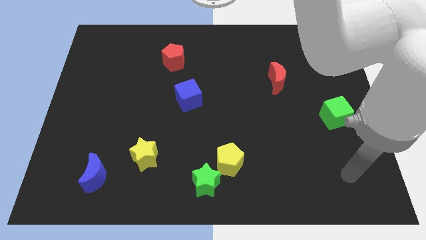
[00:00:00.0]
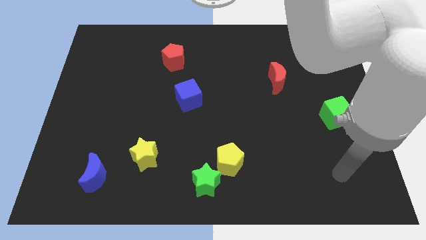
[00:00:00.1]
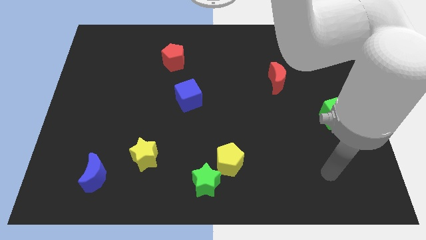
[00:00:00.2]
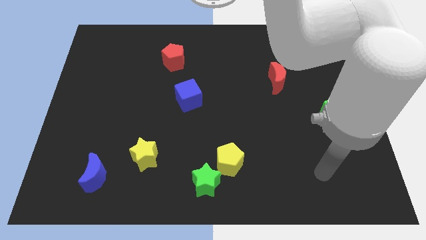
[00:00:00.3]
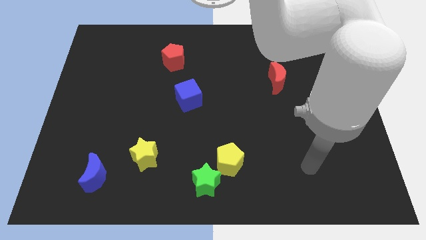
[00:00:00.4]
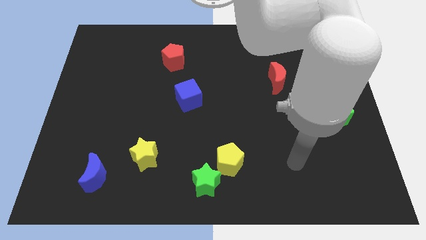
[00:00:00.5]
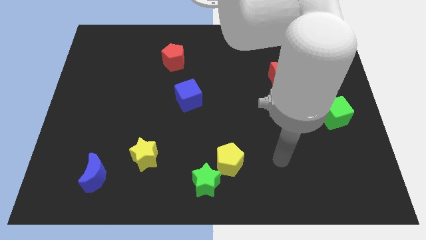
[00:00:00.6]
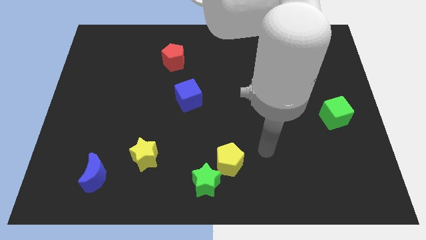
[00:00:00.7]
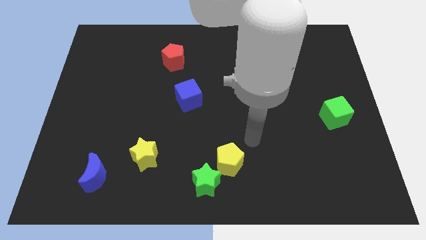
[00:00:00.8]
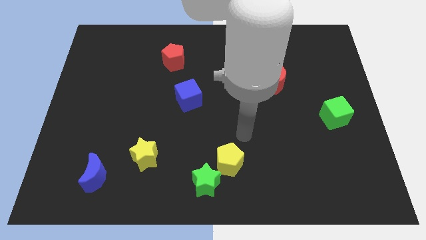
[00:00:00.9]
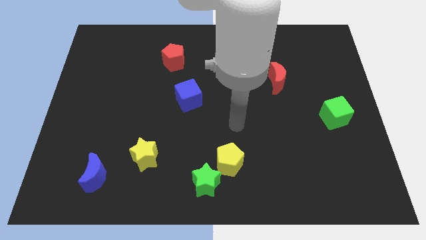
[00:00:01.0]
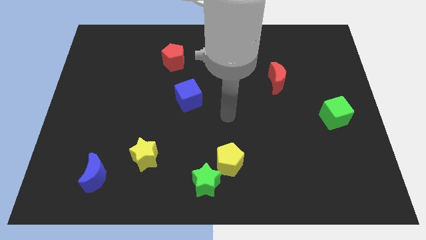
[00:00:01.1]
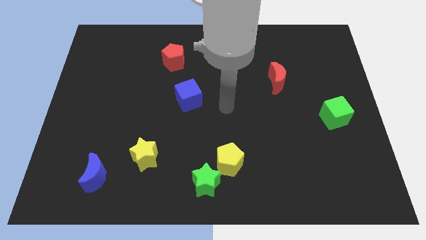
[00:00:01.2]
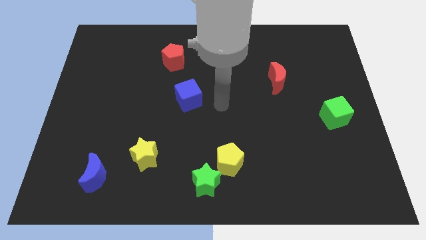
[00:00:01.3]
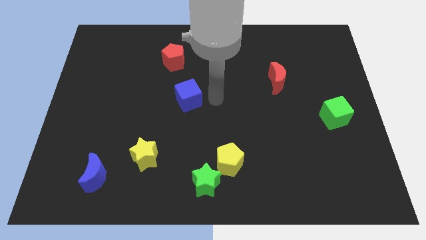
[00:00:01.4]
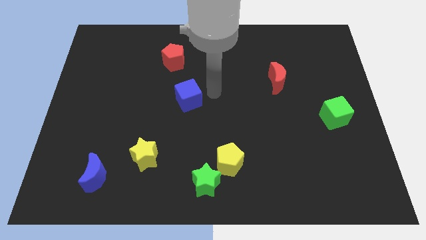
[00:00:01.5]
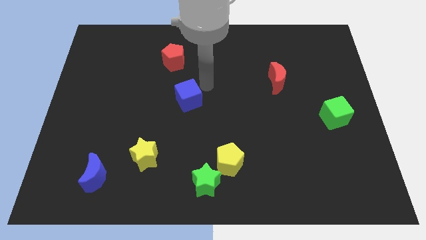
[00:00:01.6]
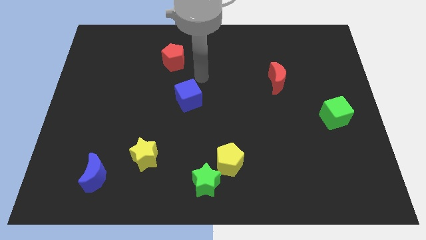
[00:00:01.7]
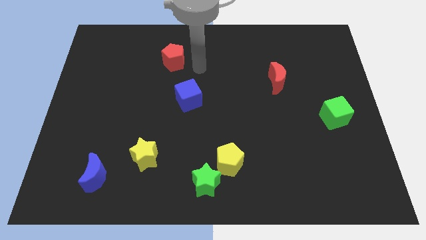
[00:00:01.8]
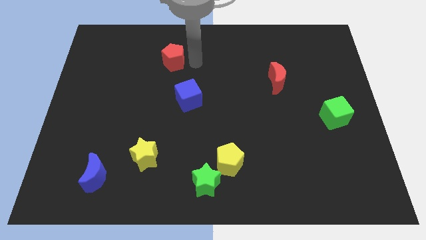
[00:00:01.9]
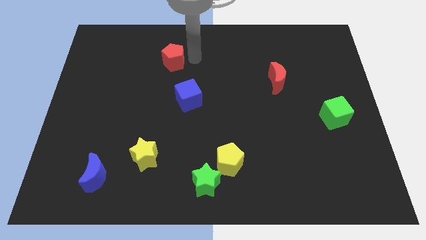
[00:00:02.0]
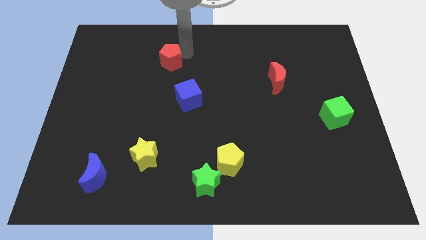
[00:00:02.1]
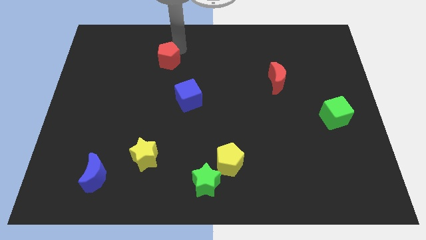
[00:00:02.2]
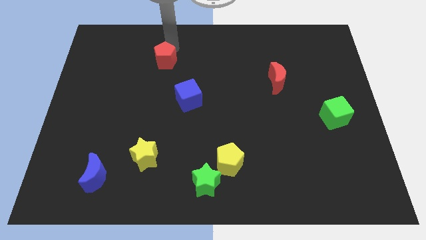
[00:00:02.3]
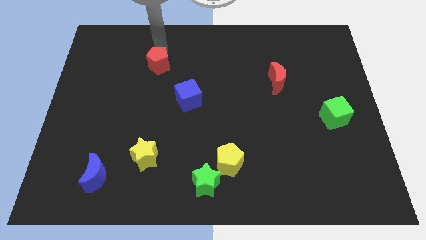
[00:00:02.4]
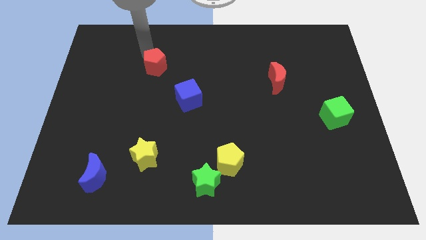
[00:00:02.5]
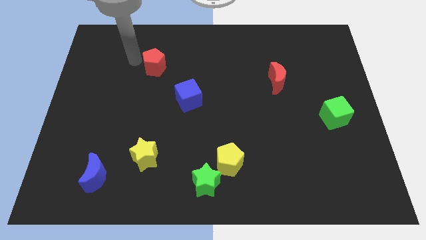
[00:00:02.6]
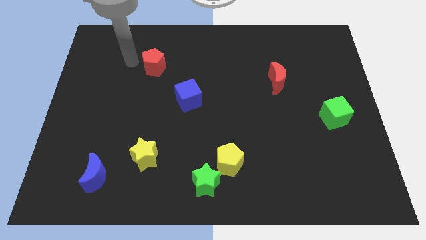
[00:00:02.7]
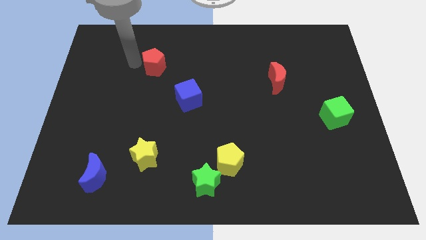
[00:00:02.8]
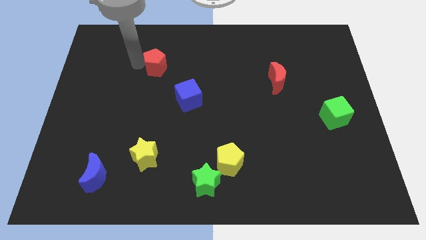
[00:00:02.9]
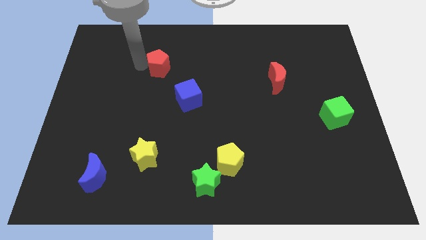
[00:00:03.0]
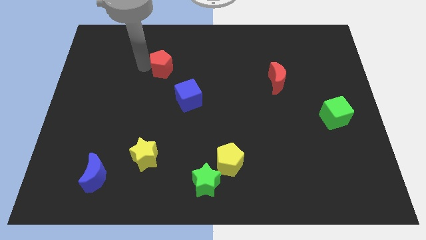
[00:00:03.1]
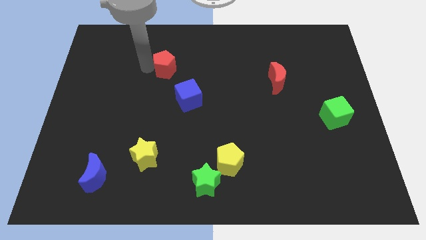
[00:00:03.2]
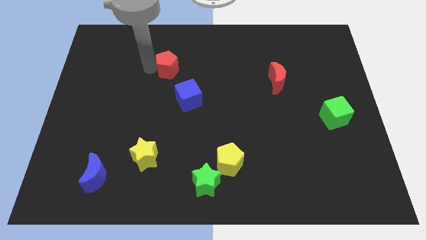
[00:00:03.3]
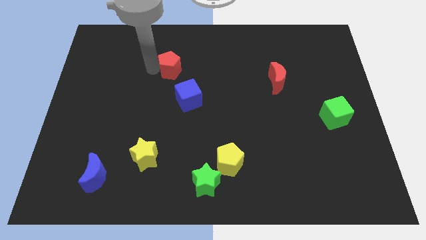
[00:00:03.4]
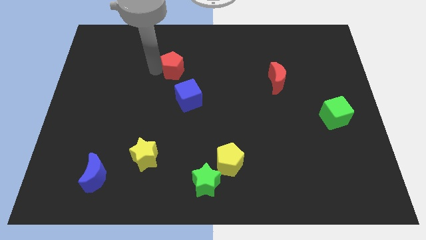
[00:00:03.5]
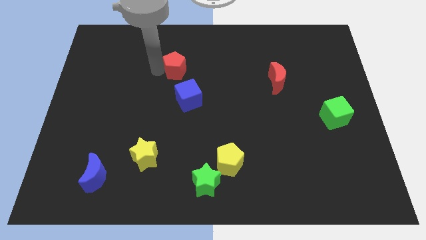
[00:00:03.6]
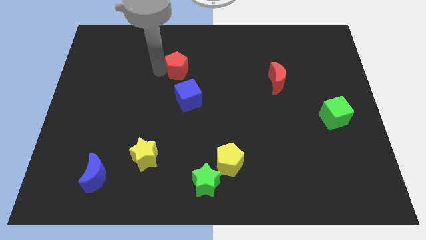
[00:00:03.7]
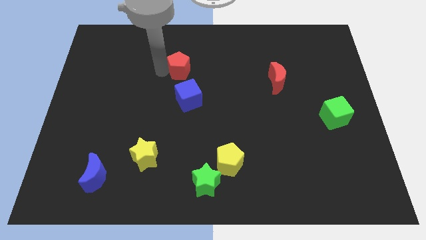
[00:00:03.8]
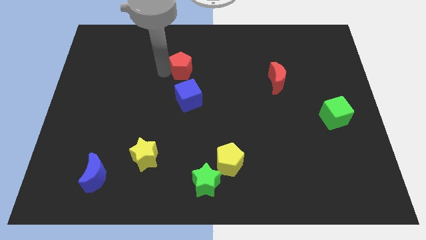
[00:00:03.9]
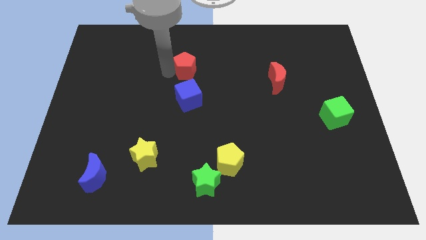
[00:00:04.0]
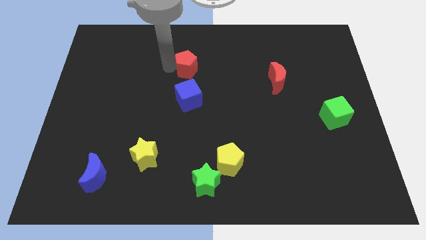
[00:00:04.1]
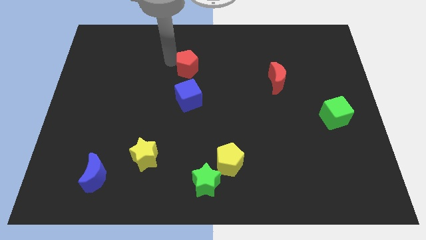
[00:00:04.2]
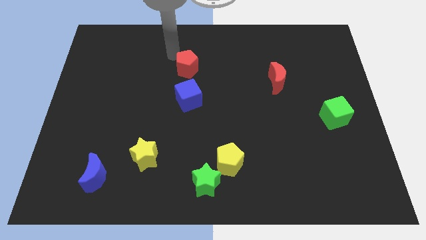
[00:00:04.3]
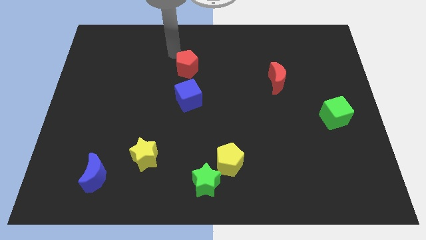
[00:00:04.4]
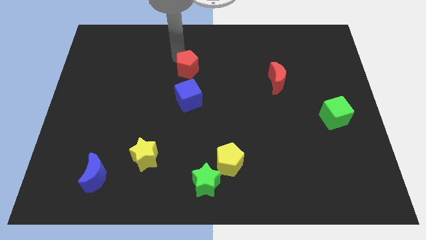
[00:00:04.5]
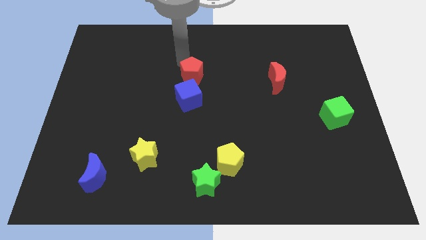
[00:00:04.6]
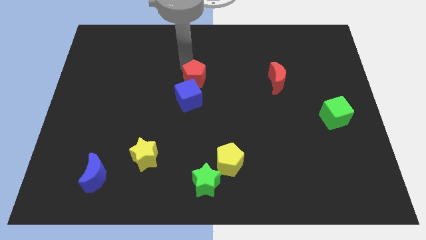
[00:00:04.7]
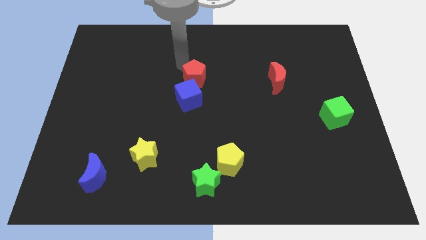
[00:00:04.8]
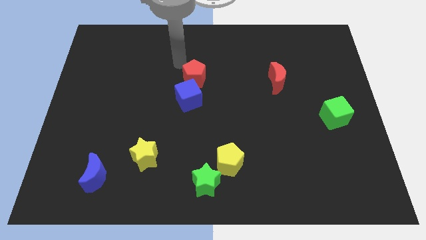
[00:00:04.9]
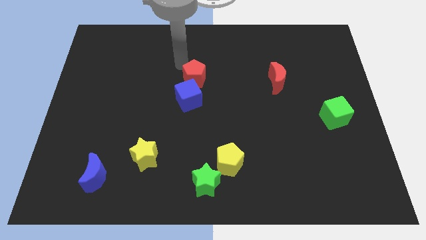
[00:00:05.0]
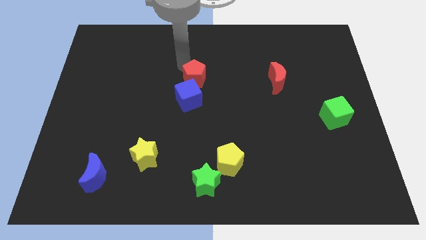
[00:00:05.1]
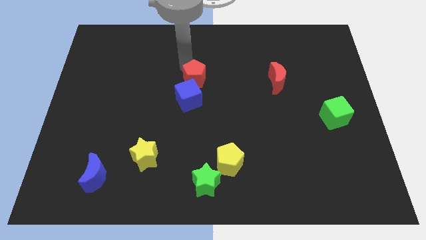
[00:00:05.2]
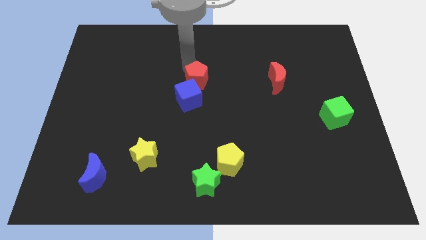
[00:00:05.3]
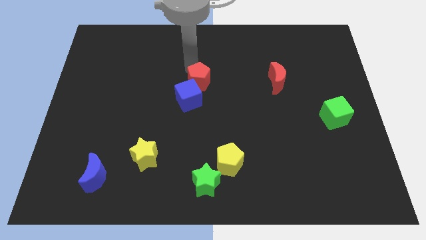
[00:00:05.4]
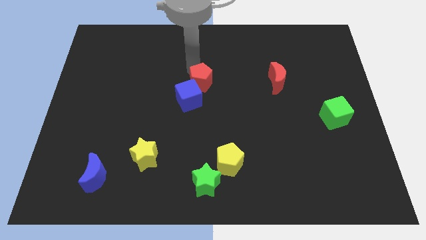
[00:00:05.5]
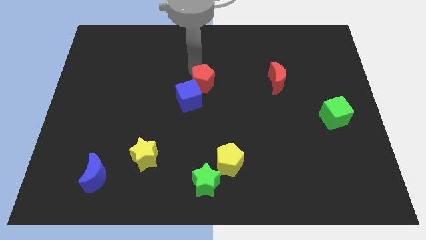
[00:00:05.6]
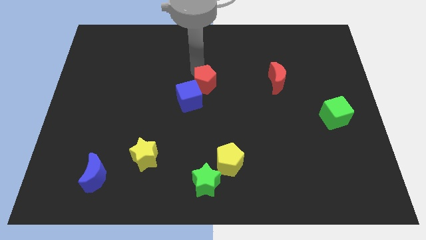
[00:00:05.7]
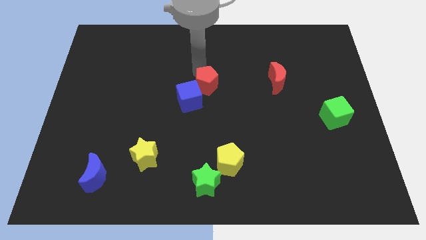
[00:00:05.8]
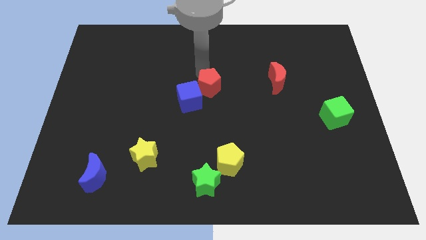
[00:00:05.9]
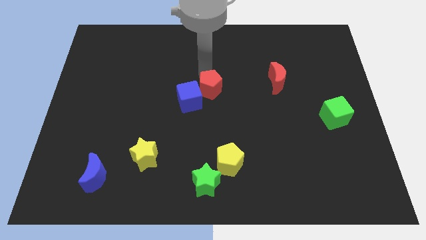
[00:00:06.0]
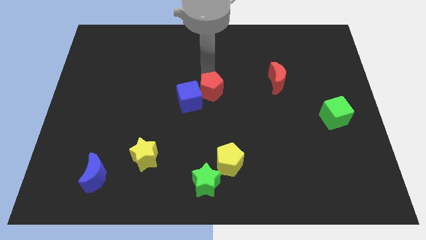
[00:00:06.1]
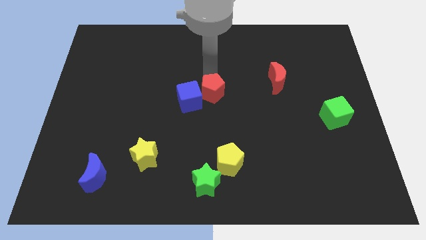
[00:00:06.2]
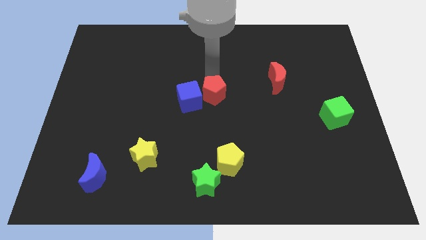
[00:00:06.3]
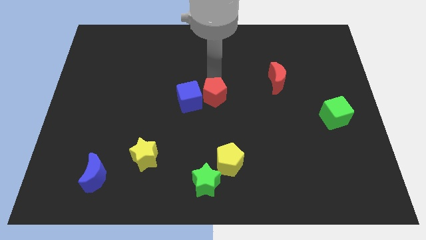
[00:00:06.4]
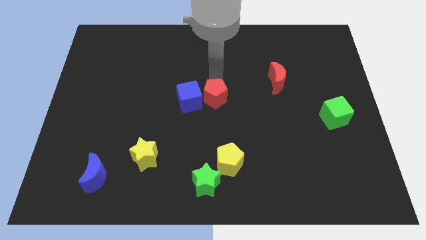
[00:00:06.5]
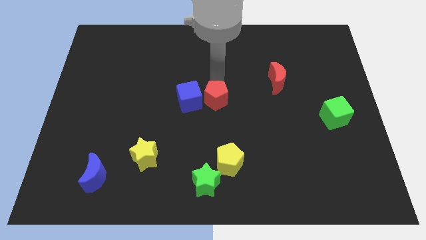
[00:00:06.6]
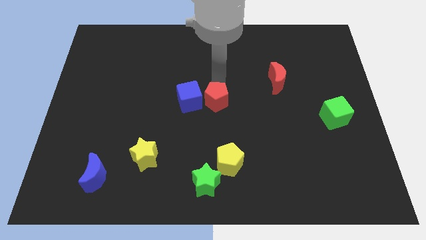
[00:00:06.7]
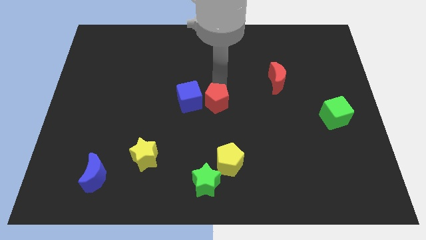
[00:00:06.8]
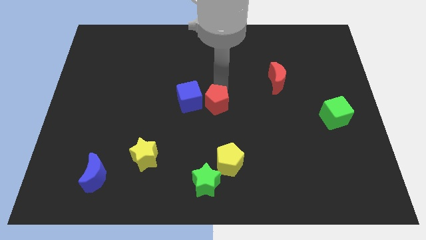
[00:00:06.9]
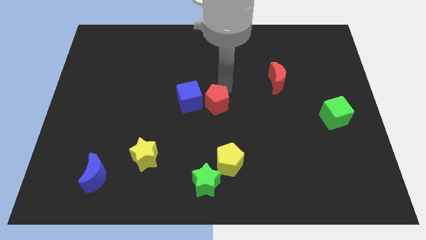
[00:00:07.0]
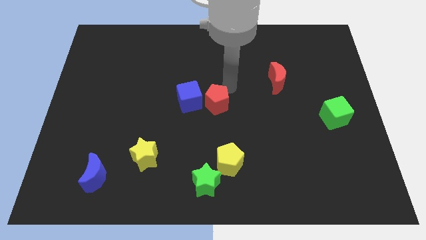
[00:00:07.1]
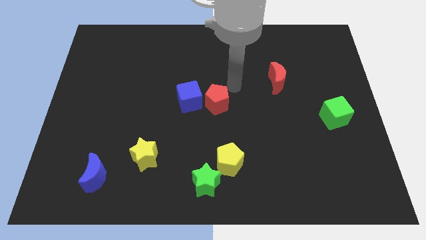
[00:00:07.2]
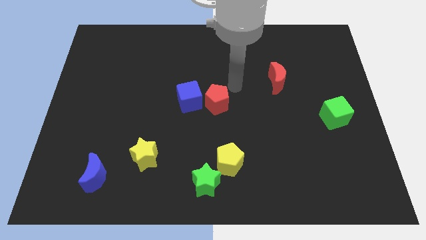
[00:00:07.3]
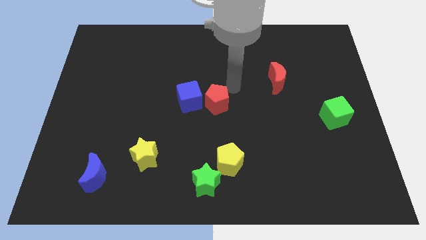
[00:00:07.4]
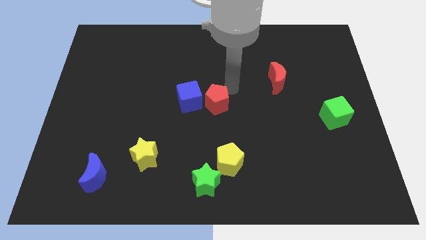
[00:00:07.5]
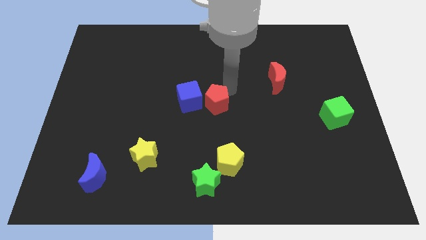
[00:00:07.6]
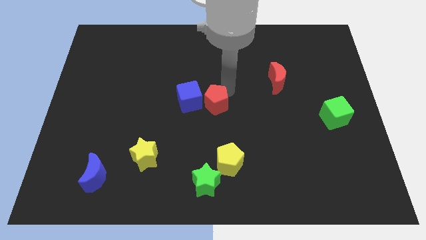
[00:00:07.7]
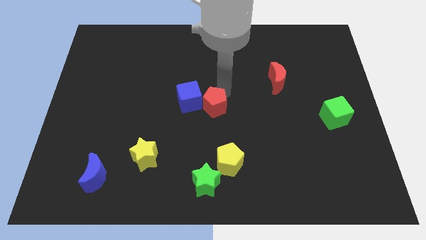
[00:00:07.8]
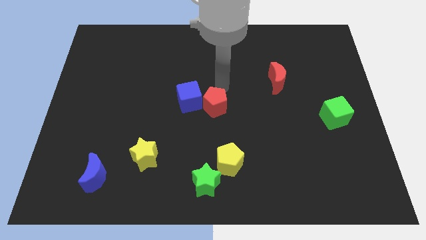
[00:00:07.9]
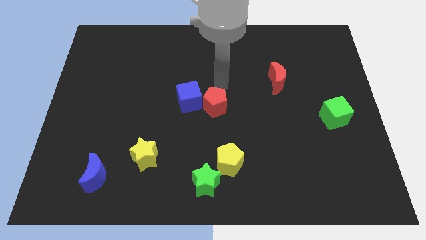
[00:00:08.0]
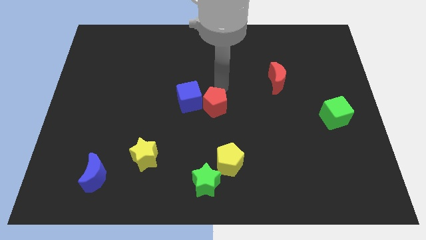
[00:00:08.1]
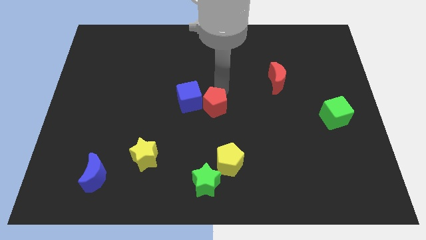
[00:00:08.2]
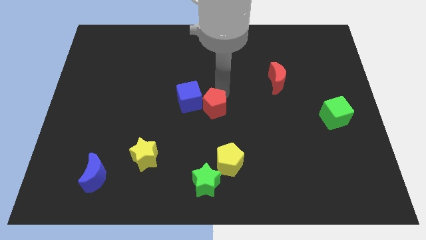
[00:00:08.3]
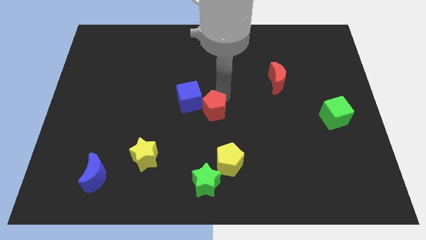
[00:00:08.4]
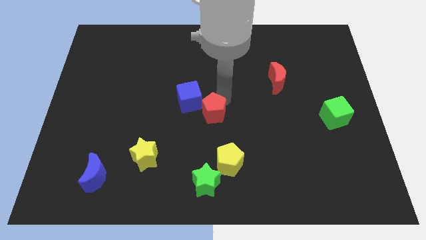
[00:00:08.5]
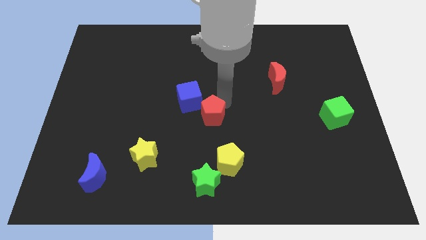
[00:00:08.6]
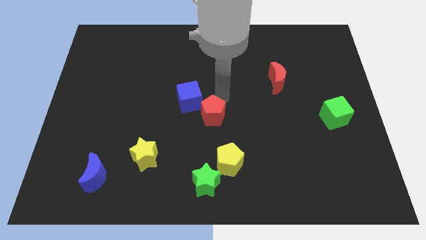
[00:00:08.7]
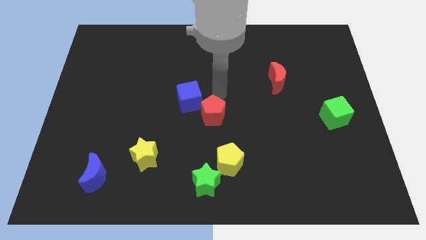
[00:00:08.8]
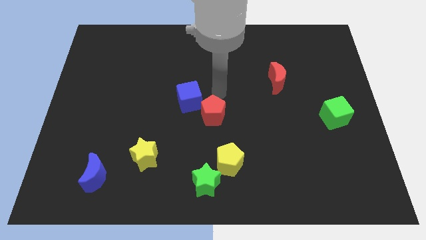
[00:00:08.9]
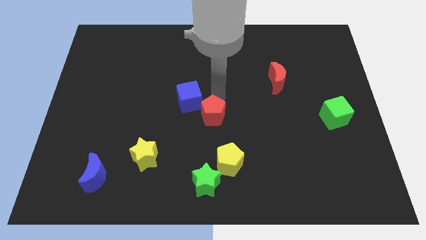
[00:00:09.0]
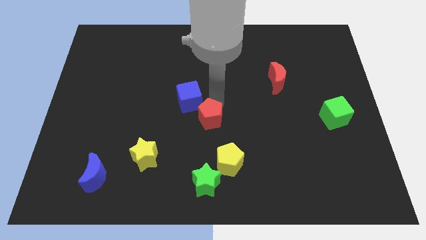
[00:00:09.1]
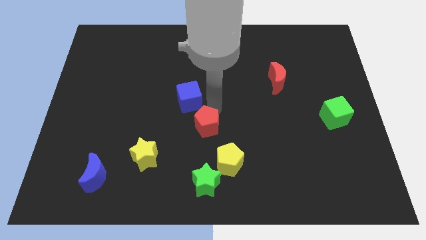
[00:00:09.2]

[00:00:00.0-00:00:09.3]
slide the red pentagon to the top side of the green star
